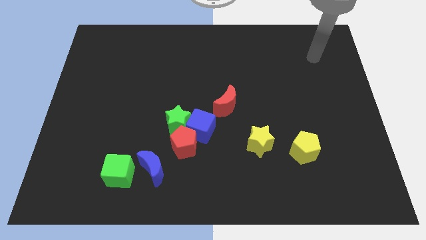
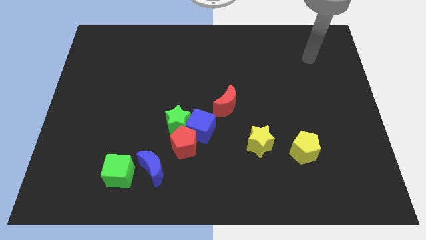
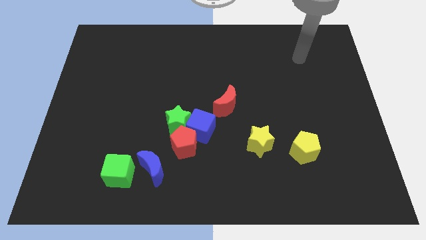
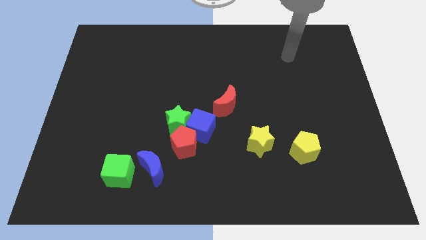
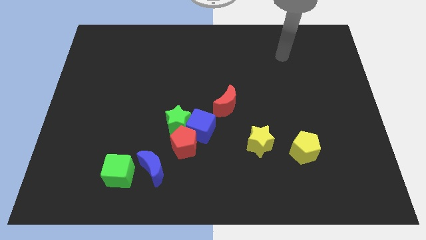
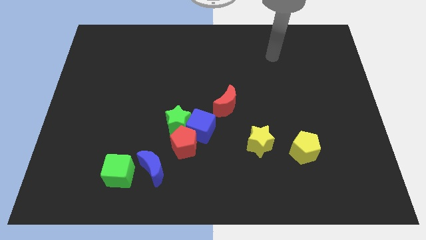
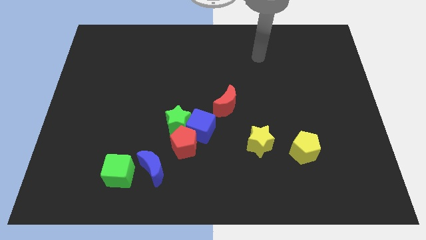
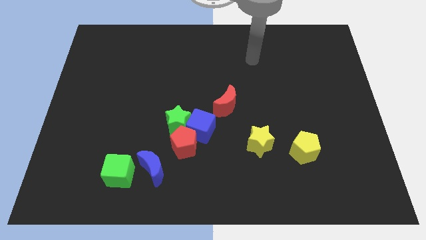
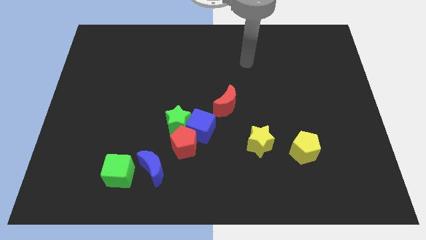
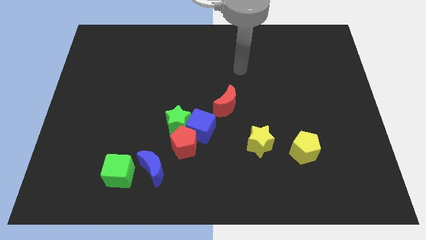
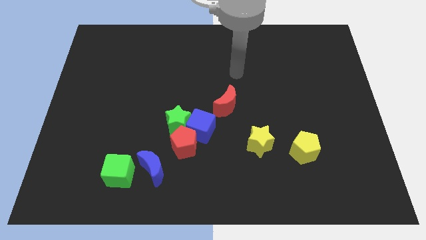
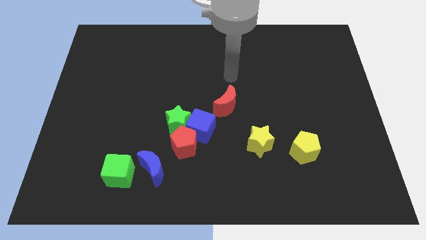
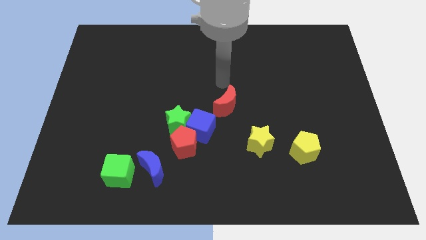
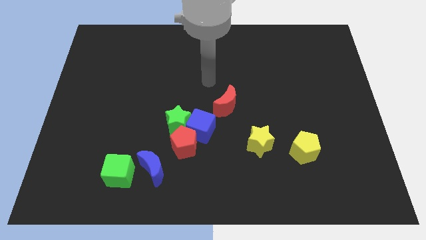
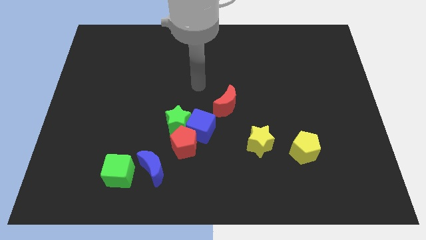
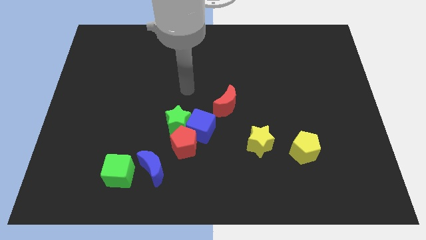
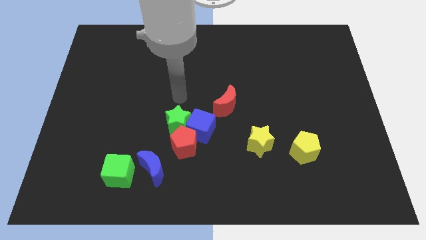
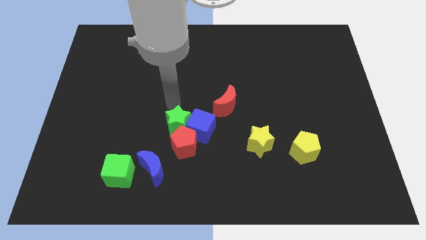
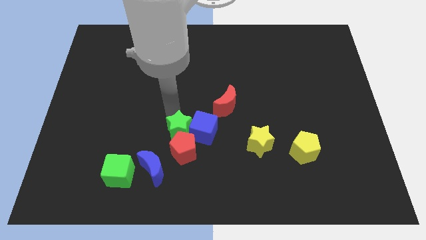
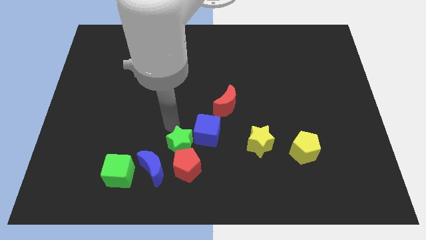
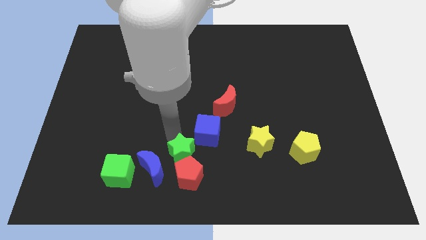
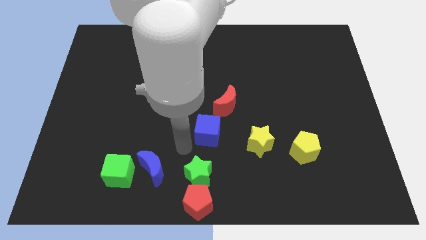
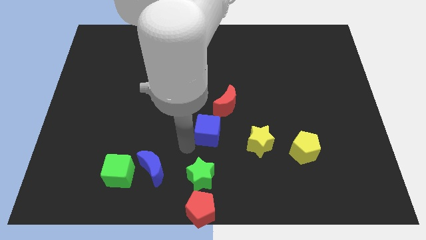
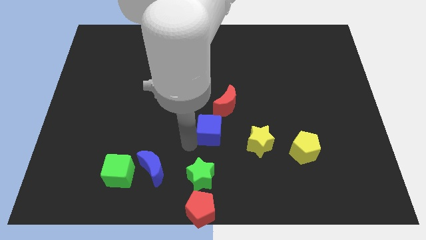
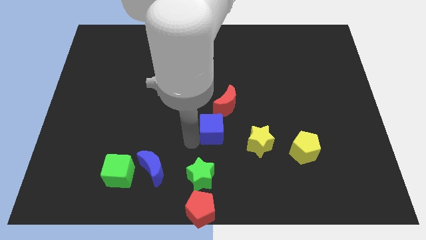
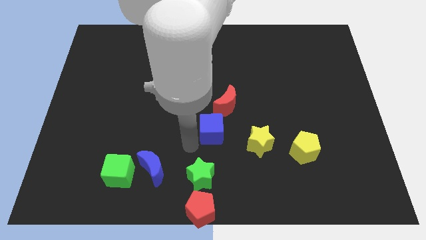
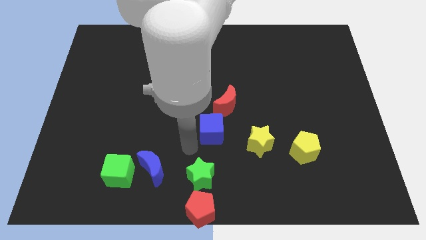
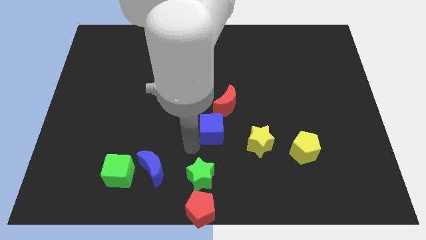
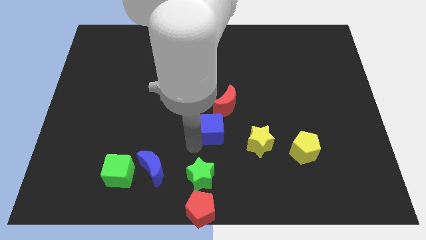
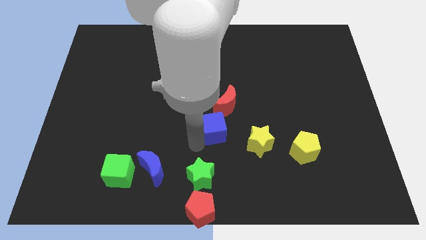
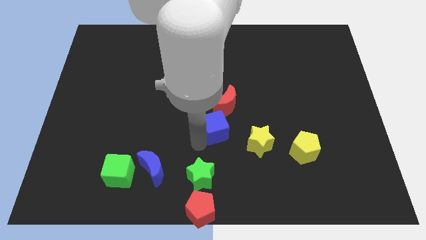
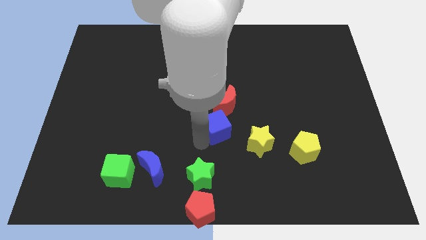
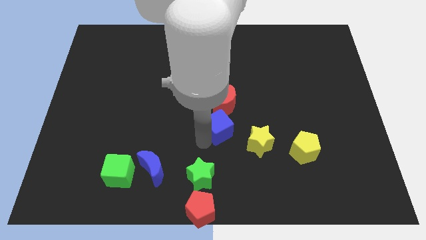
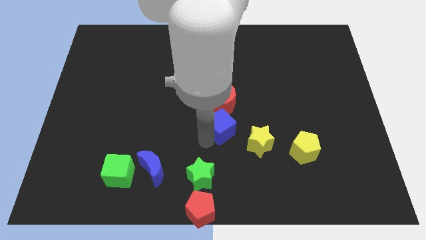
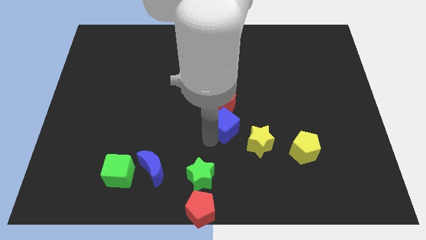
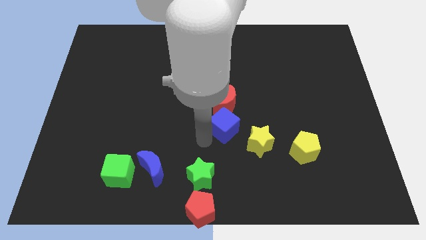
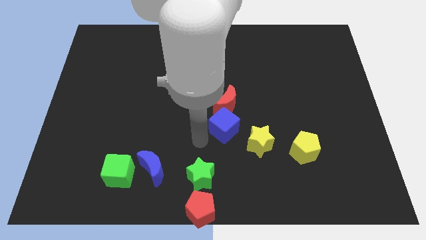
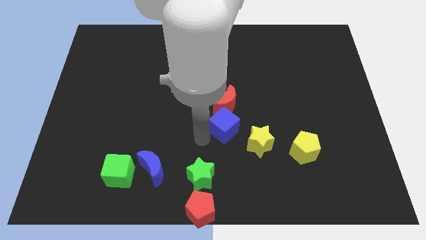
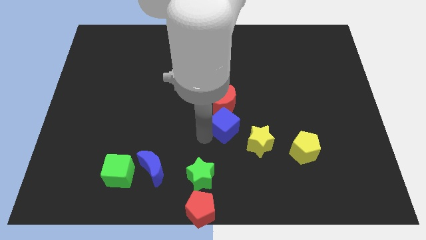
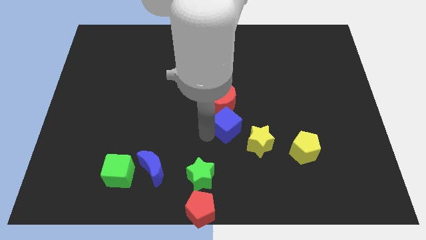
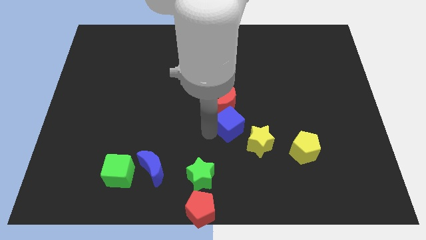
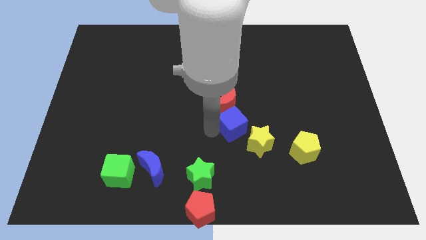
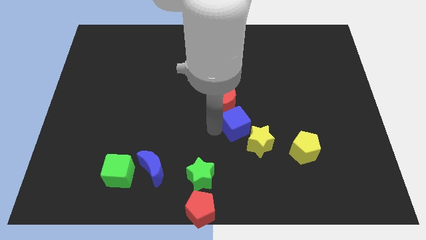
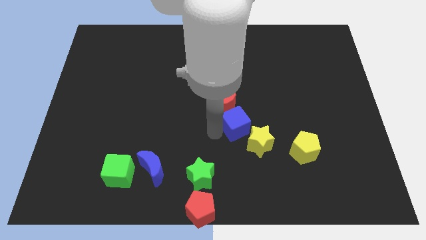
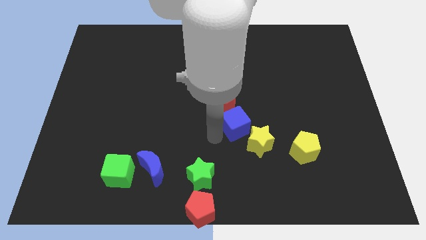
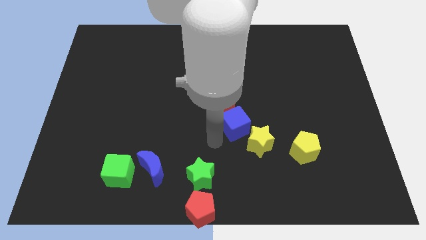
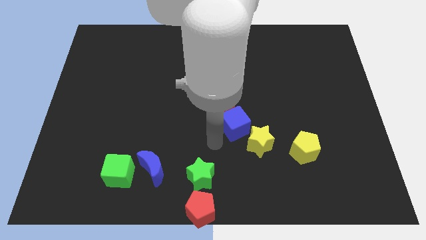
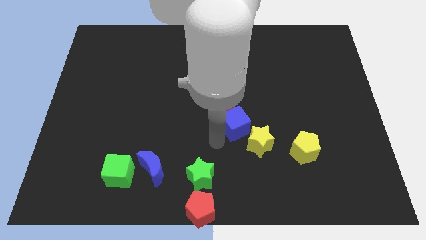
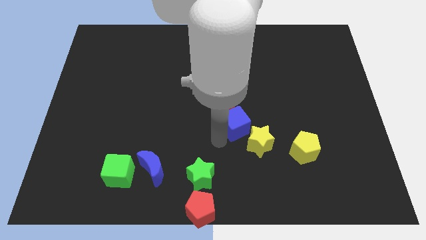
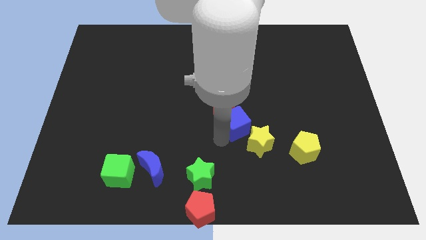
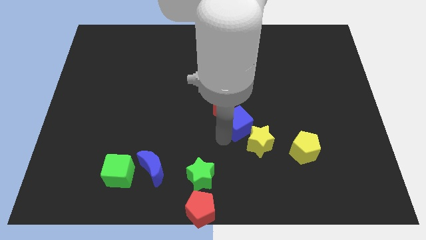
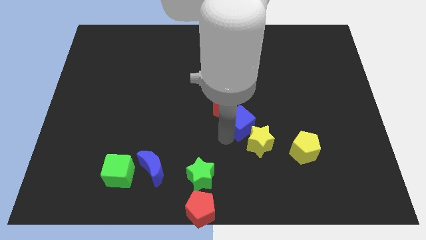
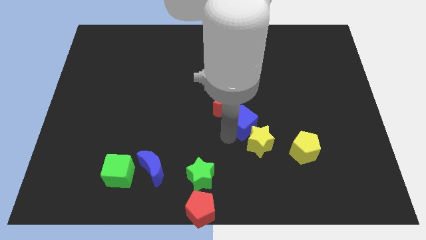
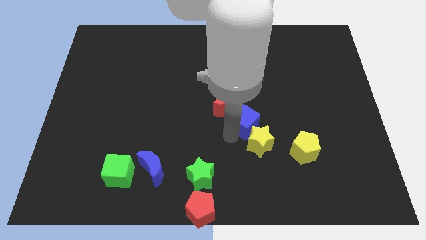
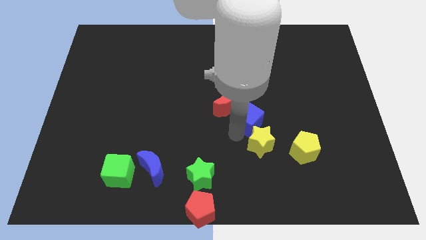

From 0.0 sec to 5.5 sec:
push the blue cube diagonally up and to the right somewhat

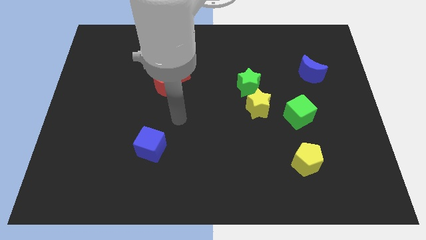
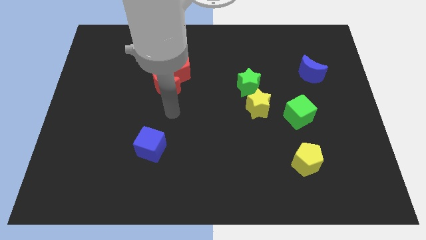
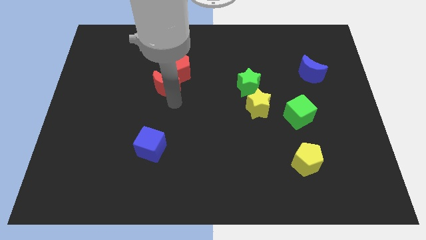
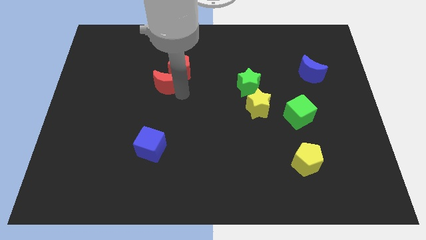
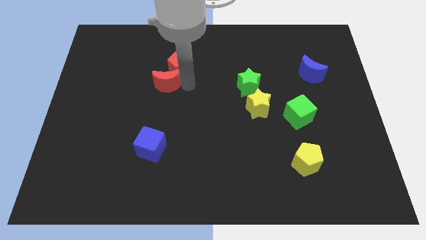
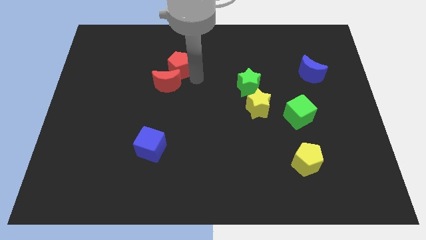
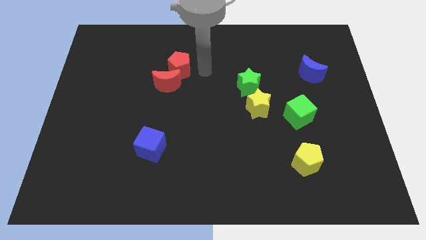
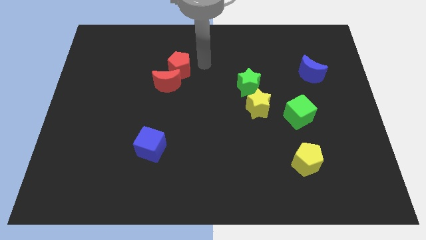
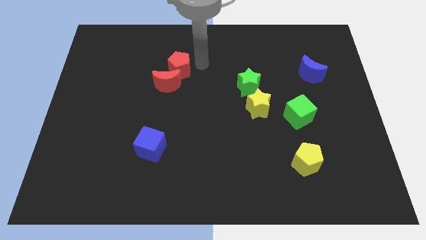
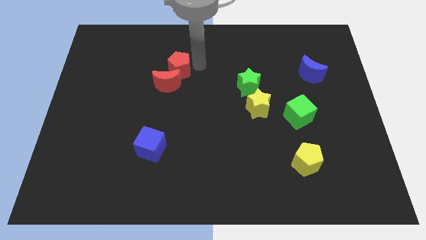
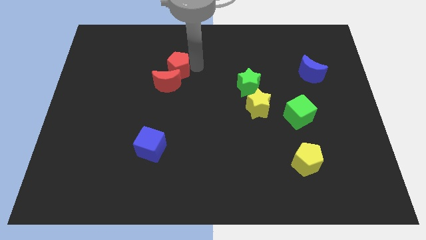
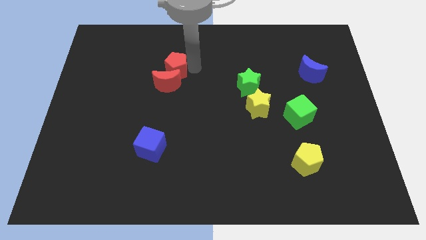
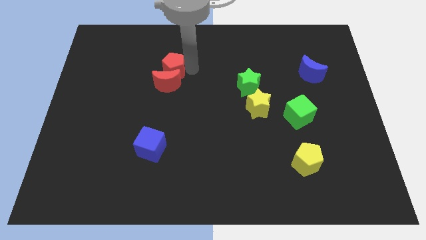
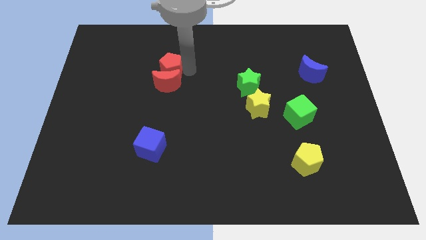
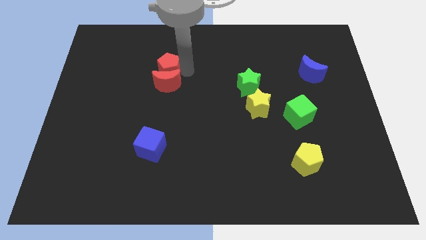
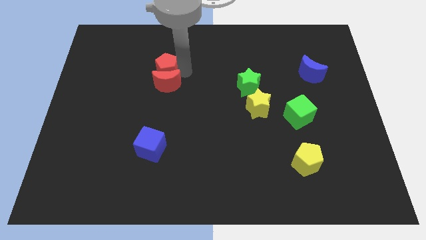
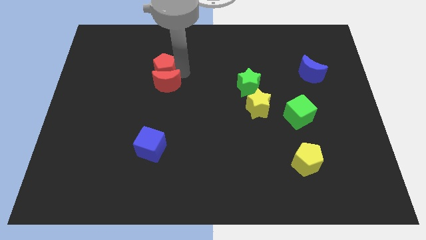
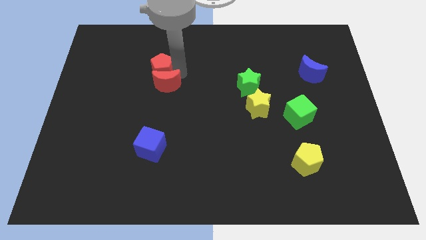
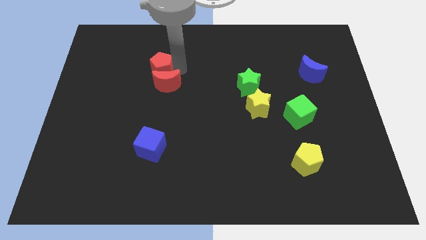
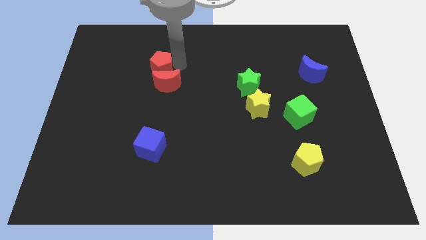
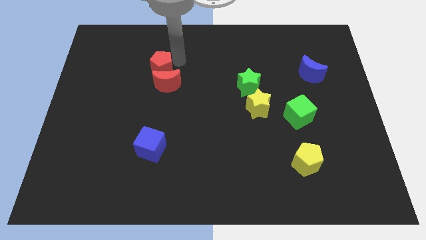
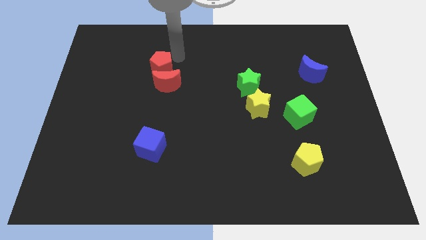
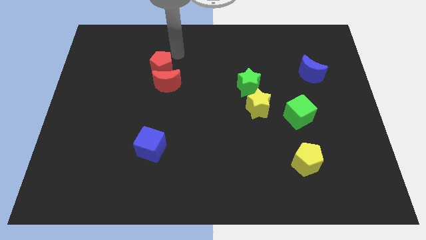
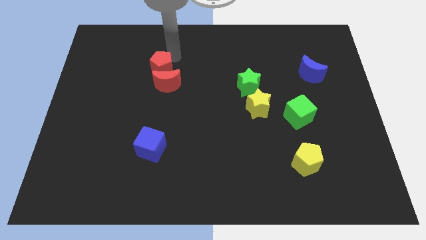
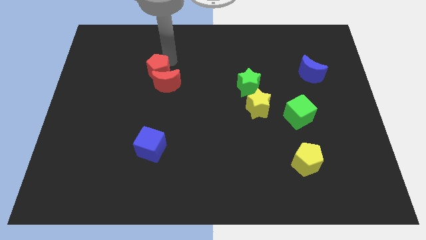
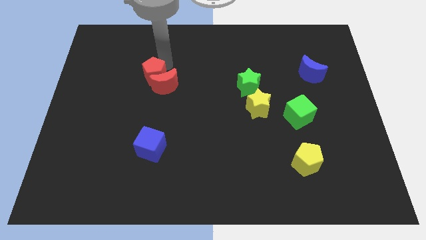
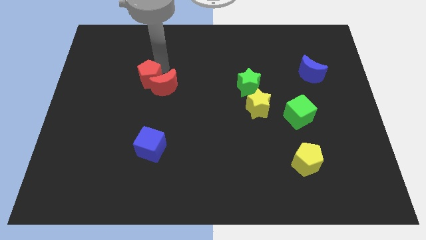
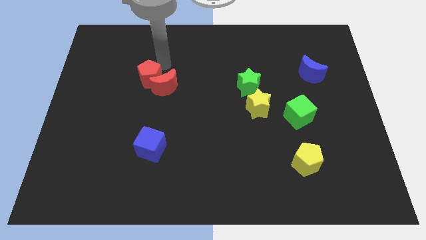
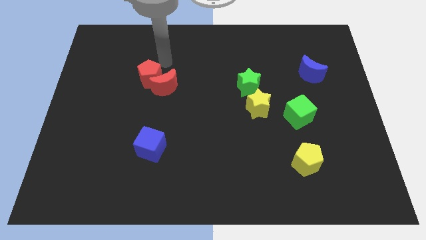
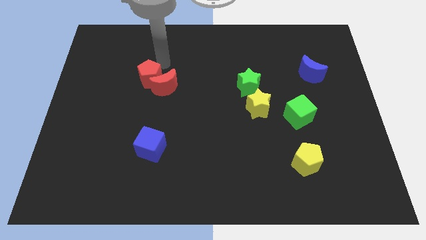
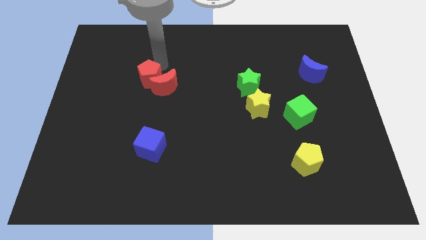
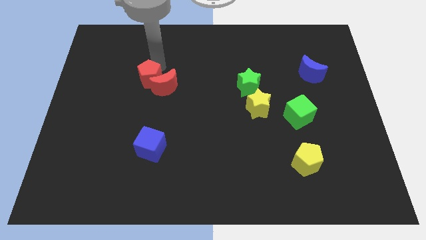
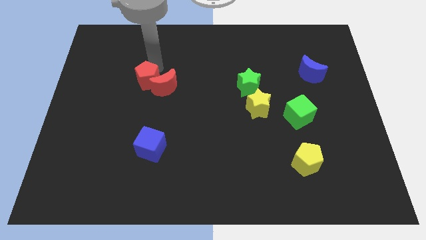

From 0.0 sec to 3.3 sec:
push the red pentagon diagonally downwards and to the left a bit
